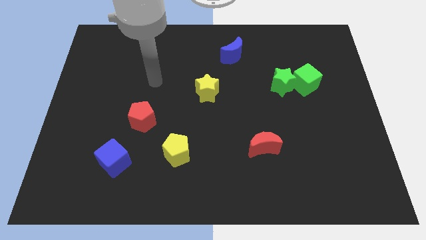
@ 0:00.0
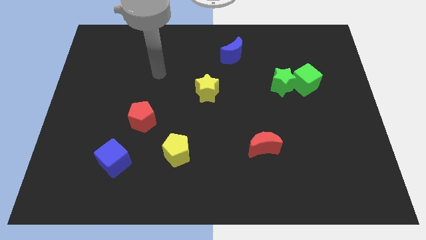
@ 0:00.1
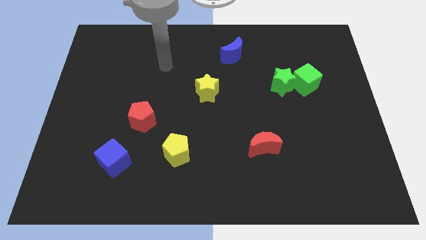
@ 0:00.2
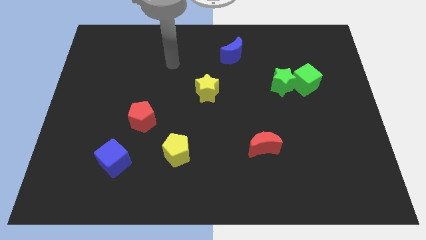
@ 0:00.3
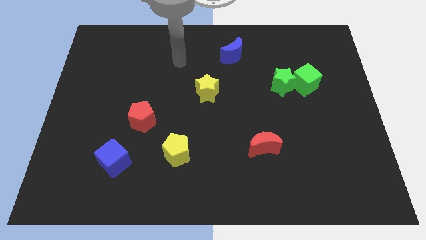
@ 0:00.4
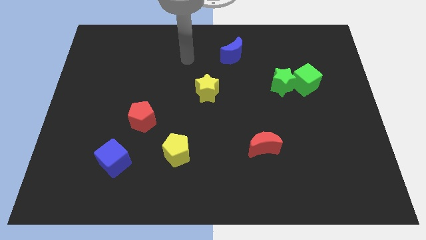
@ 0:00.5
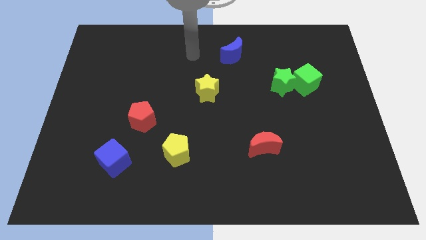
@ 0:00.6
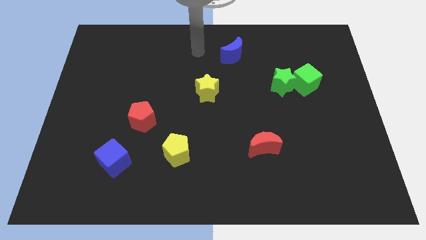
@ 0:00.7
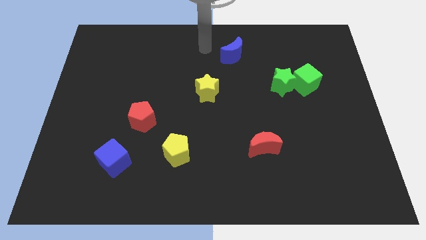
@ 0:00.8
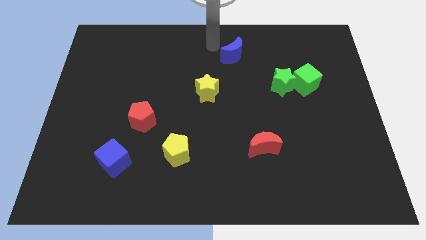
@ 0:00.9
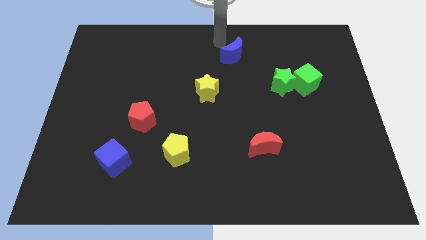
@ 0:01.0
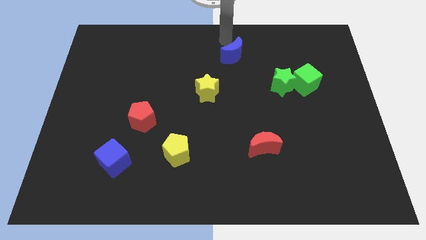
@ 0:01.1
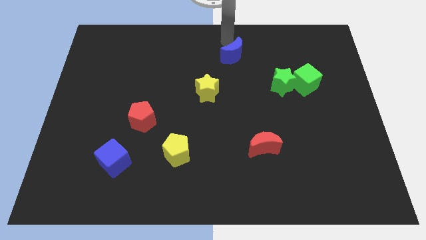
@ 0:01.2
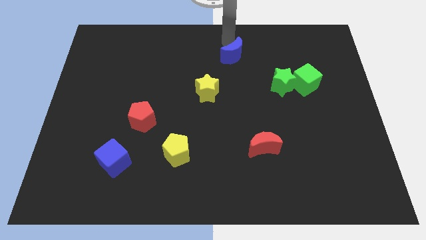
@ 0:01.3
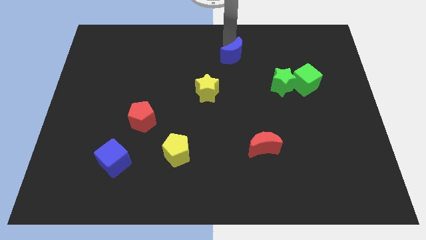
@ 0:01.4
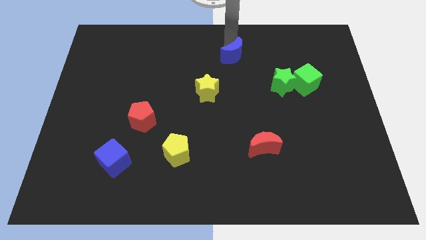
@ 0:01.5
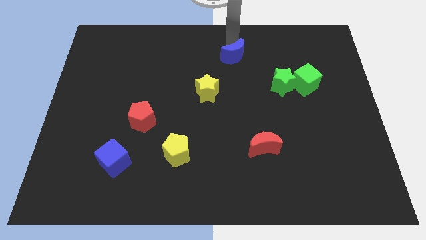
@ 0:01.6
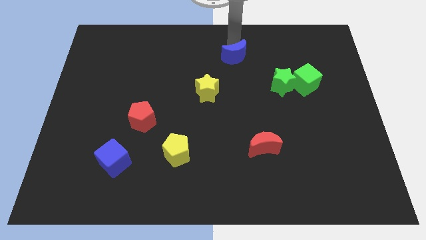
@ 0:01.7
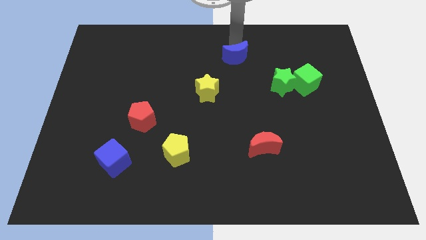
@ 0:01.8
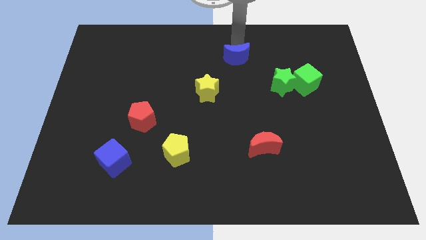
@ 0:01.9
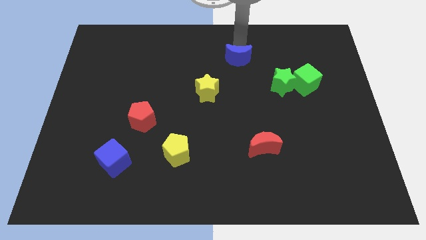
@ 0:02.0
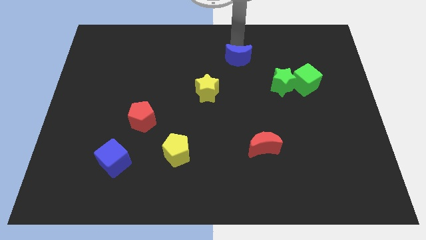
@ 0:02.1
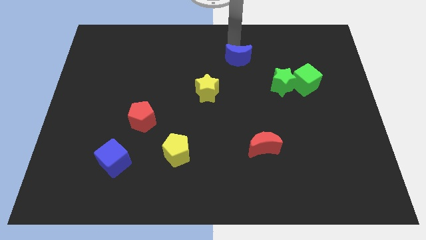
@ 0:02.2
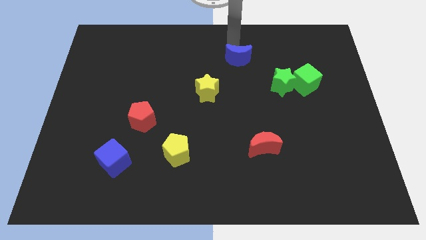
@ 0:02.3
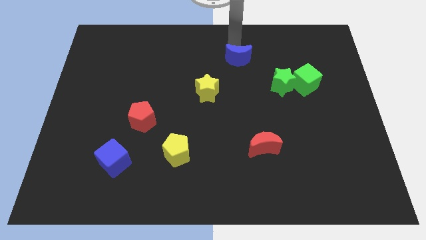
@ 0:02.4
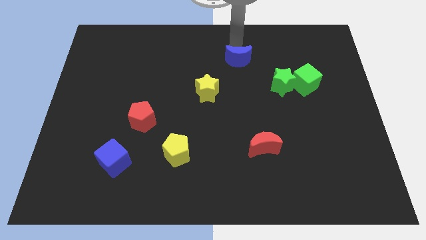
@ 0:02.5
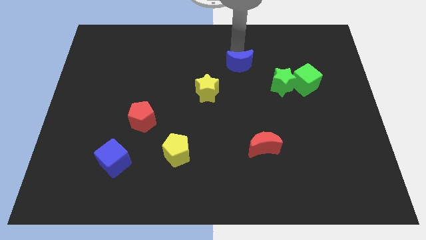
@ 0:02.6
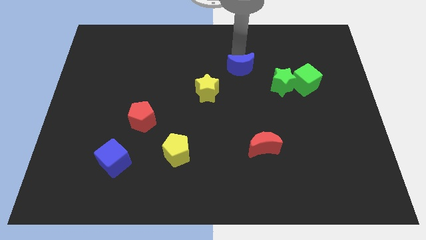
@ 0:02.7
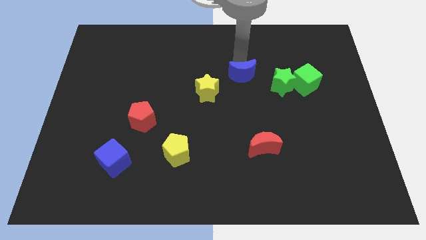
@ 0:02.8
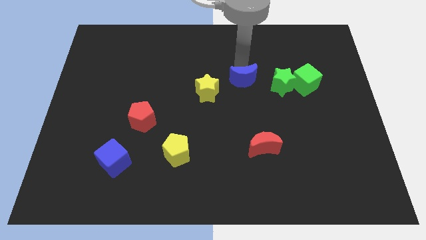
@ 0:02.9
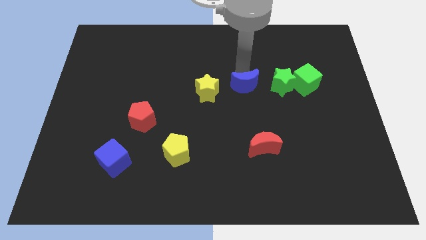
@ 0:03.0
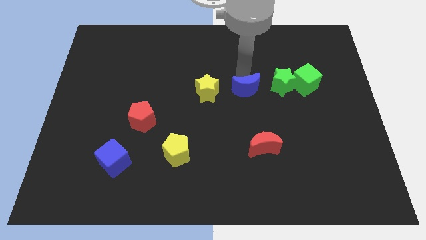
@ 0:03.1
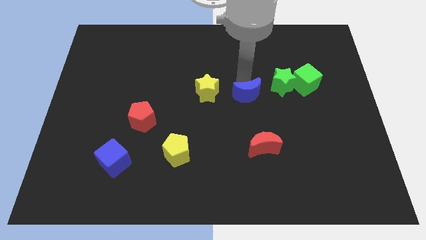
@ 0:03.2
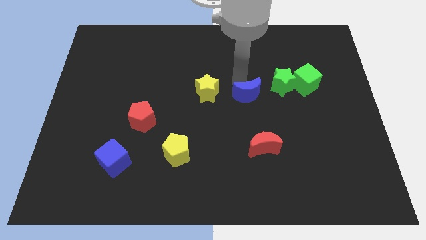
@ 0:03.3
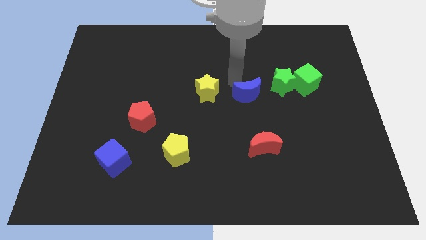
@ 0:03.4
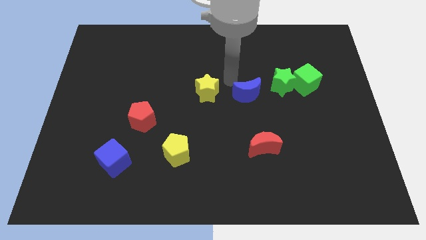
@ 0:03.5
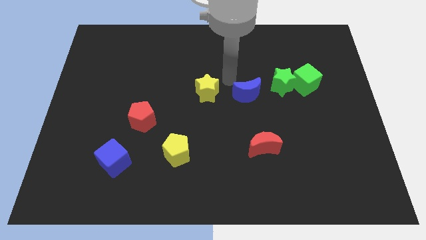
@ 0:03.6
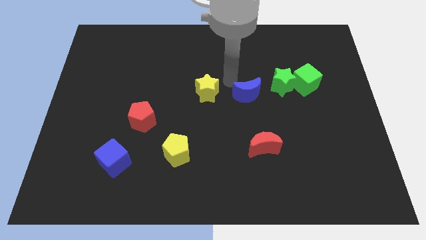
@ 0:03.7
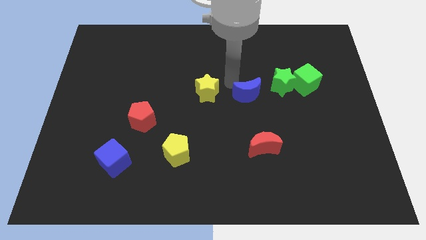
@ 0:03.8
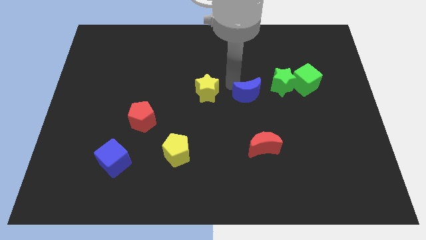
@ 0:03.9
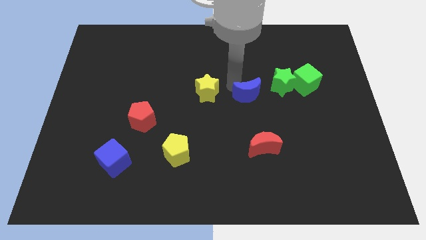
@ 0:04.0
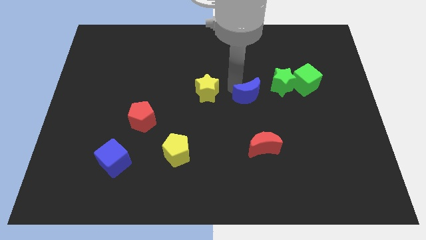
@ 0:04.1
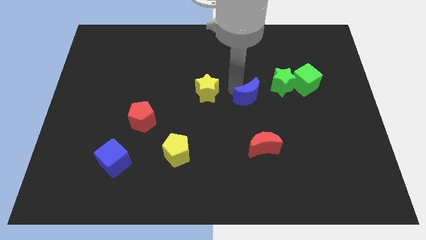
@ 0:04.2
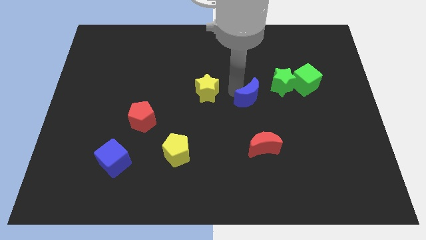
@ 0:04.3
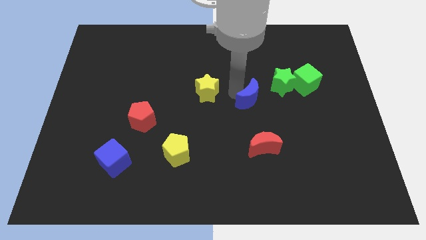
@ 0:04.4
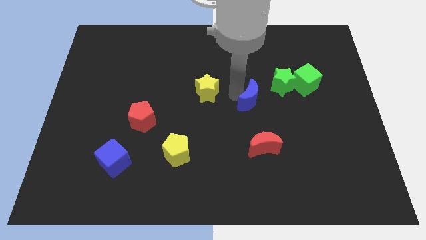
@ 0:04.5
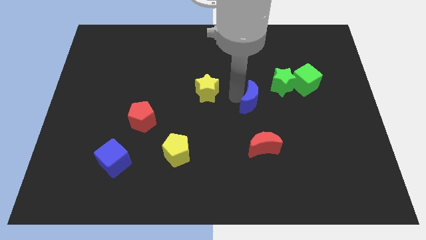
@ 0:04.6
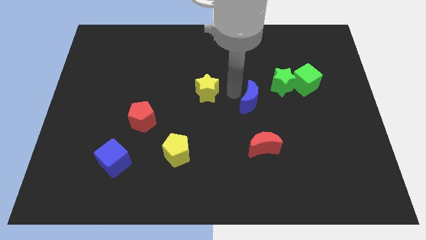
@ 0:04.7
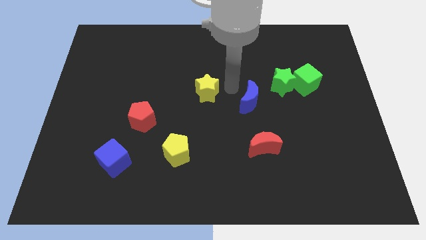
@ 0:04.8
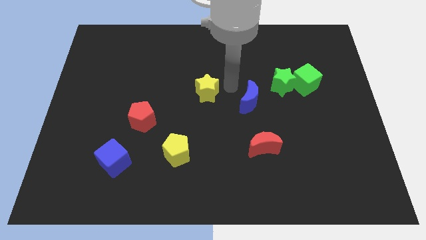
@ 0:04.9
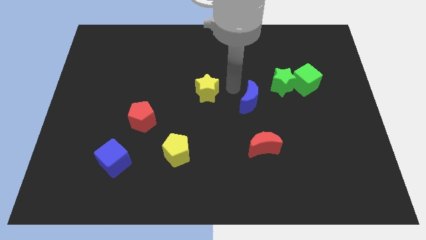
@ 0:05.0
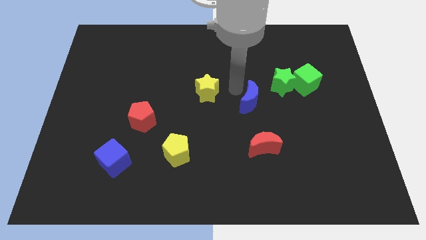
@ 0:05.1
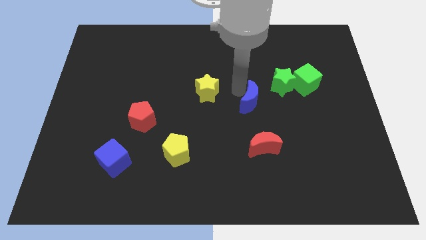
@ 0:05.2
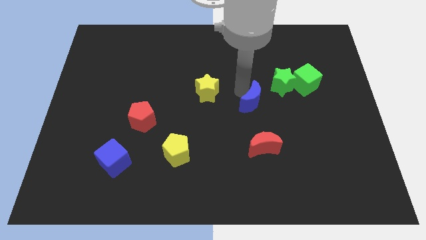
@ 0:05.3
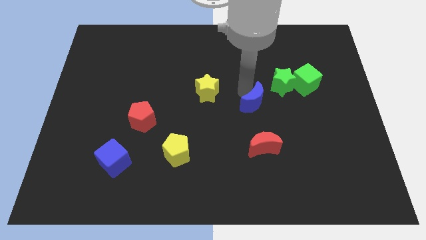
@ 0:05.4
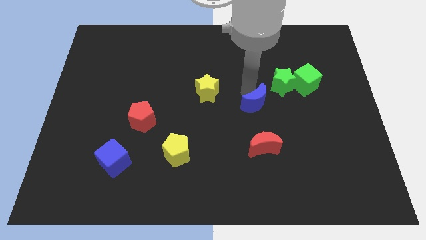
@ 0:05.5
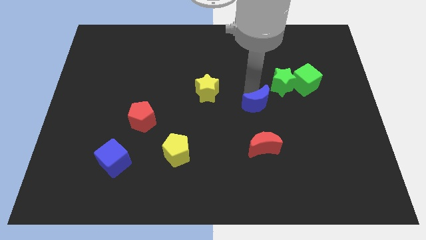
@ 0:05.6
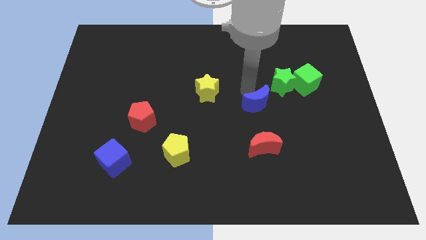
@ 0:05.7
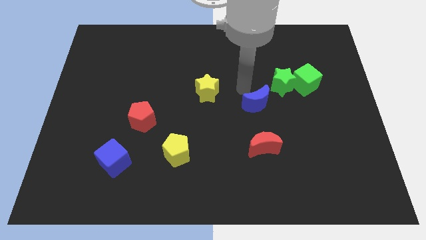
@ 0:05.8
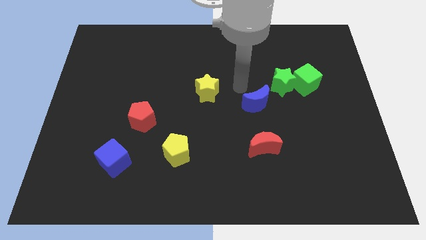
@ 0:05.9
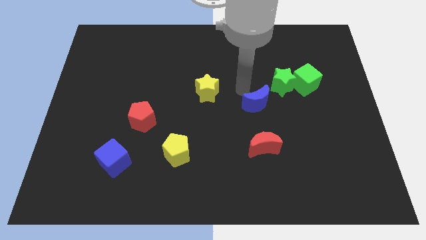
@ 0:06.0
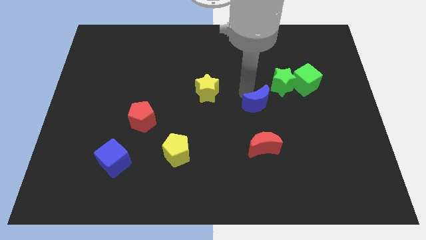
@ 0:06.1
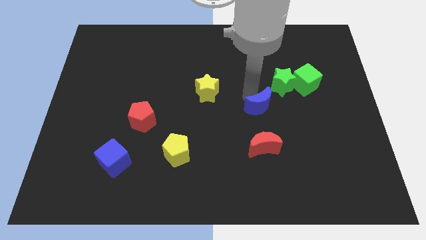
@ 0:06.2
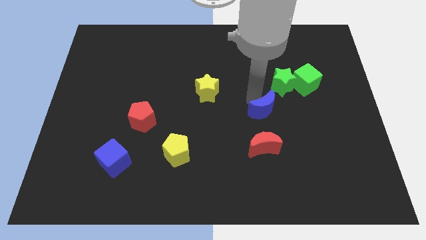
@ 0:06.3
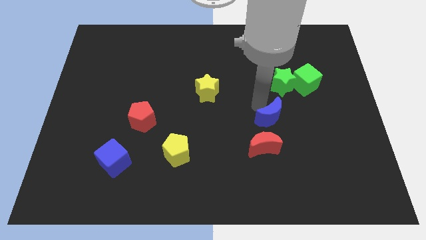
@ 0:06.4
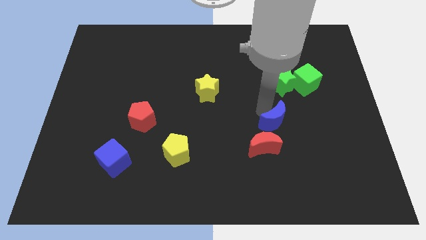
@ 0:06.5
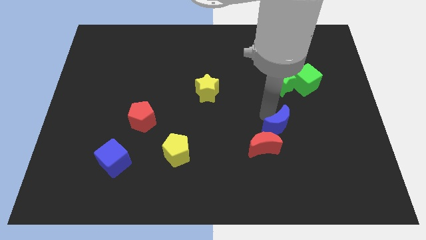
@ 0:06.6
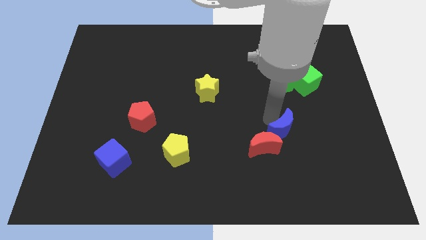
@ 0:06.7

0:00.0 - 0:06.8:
push the blue moon to the right of the red moon
